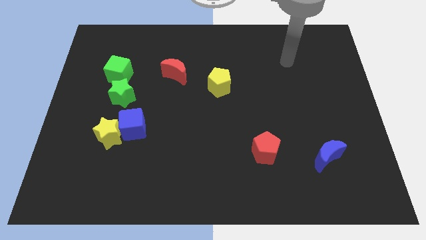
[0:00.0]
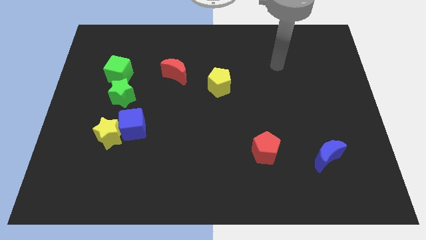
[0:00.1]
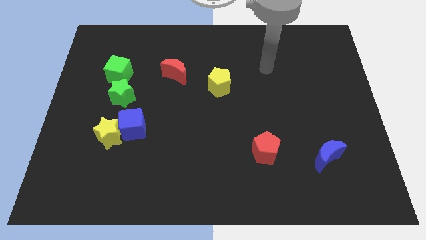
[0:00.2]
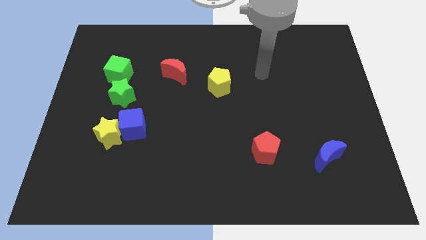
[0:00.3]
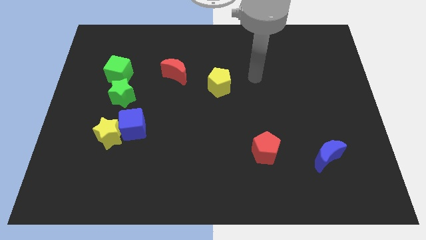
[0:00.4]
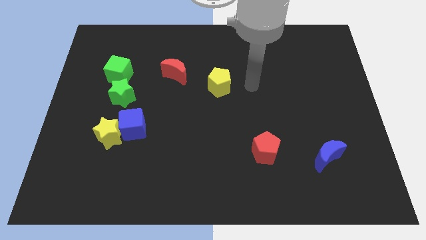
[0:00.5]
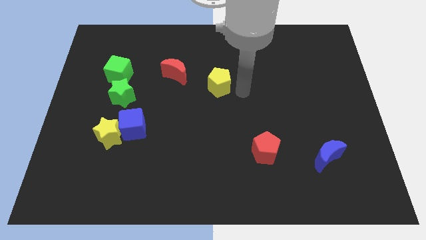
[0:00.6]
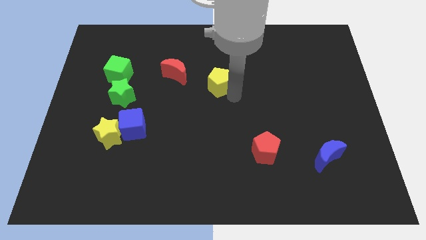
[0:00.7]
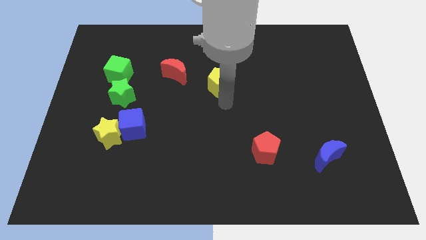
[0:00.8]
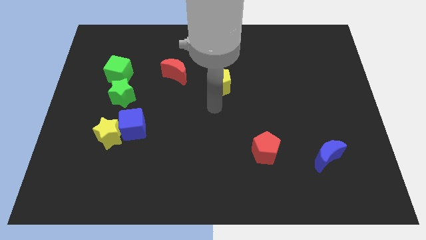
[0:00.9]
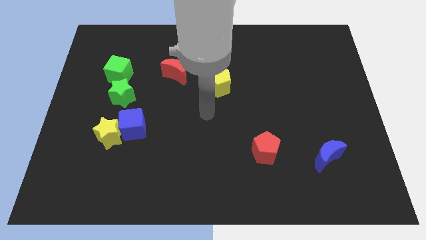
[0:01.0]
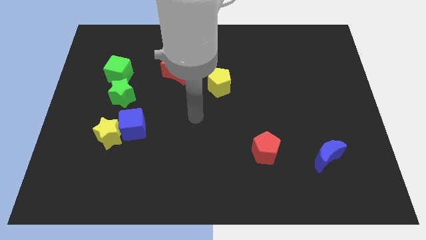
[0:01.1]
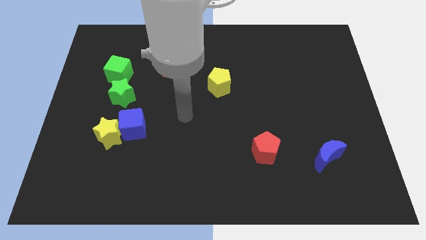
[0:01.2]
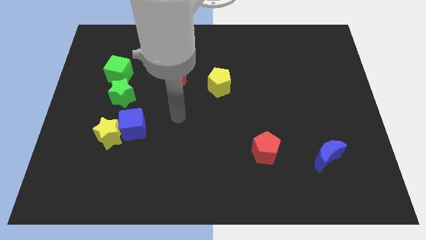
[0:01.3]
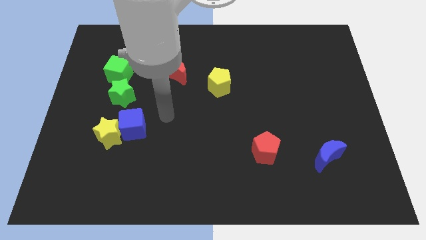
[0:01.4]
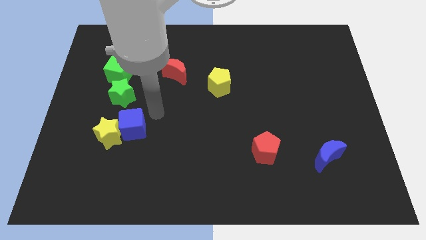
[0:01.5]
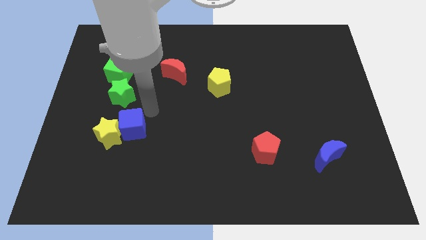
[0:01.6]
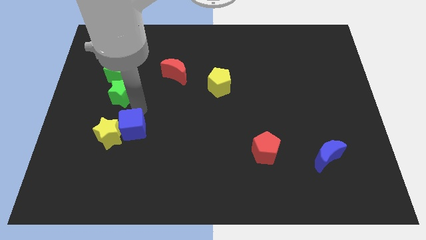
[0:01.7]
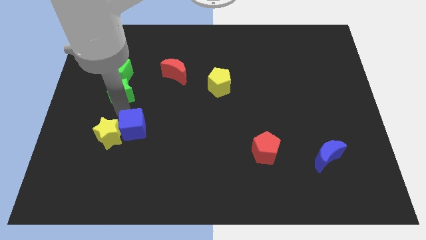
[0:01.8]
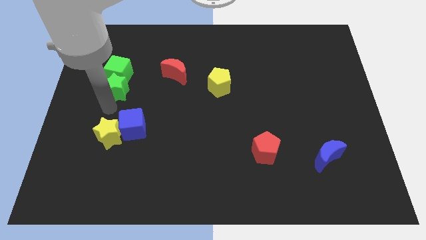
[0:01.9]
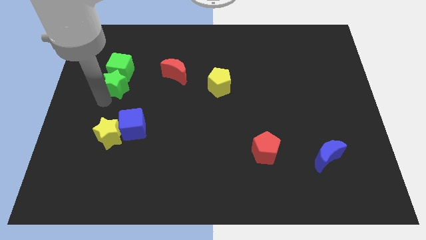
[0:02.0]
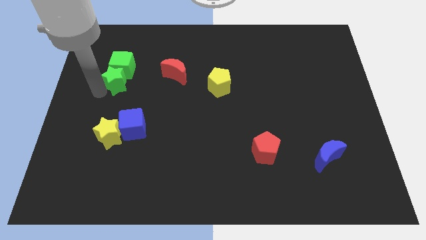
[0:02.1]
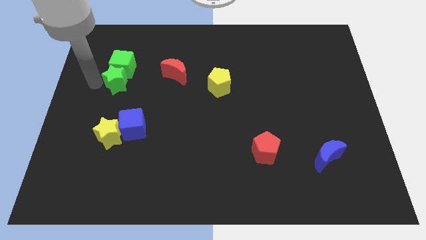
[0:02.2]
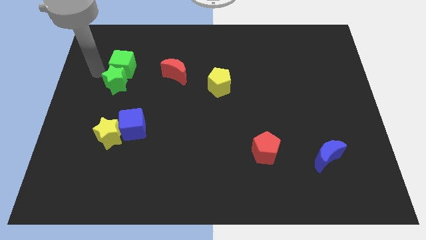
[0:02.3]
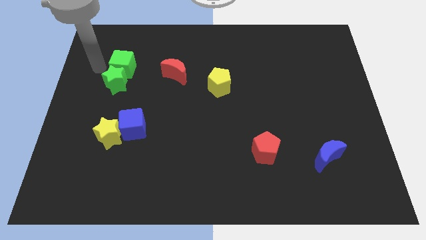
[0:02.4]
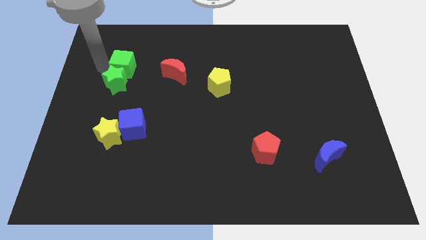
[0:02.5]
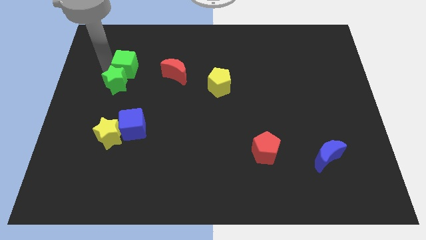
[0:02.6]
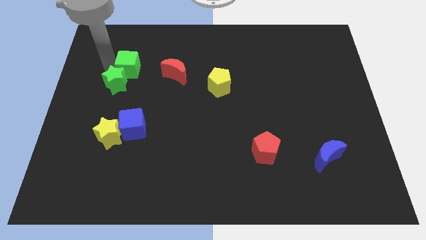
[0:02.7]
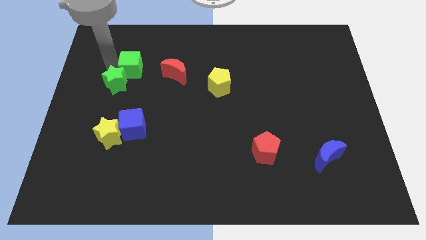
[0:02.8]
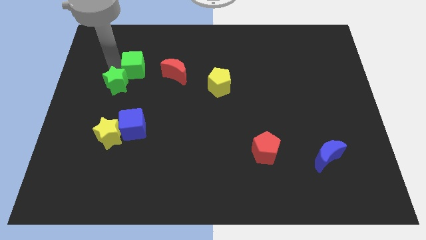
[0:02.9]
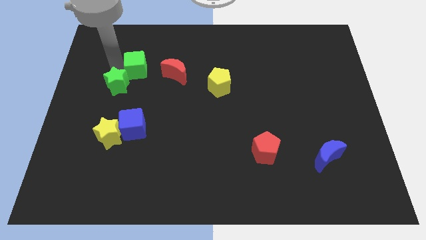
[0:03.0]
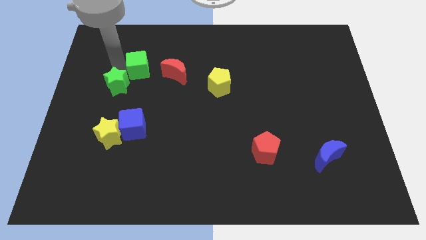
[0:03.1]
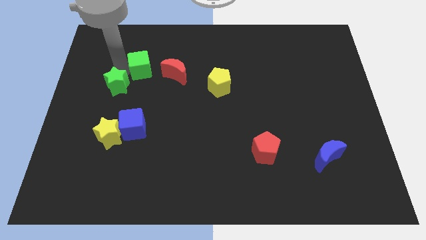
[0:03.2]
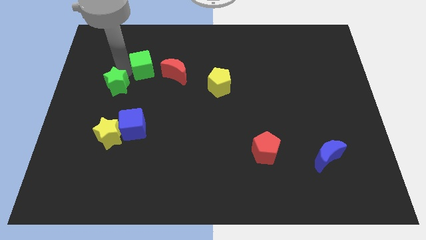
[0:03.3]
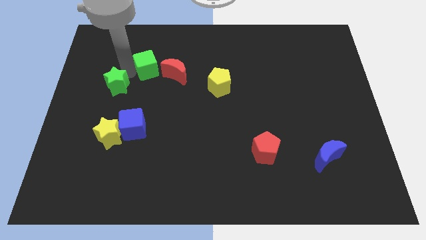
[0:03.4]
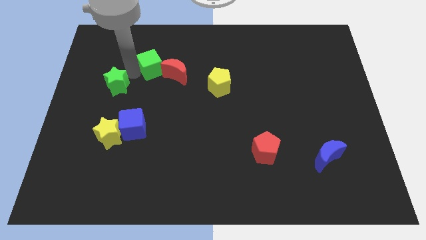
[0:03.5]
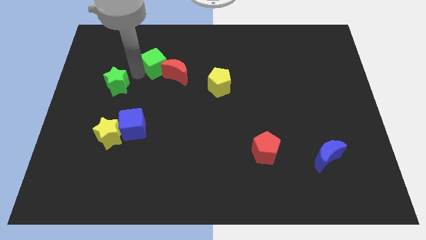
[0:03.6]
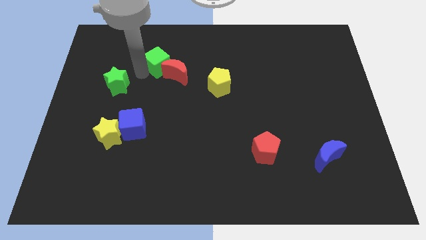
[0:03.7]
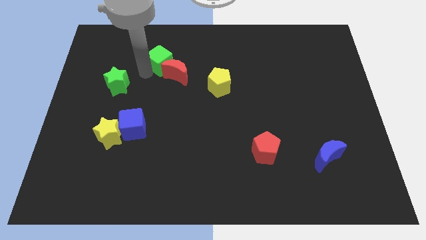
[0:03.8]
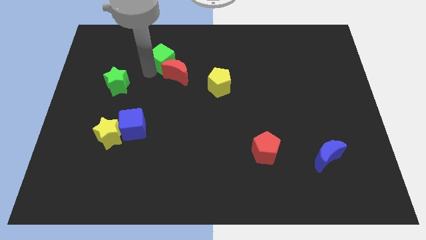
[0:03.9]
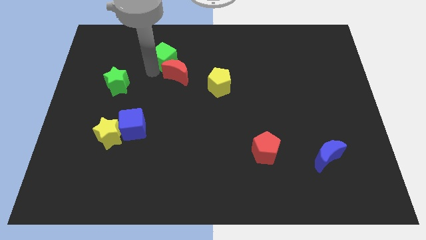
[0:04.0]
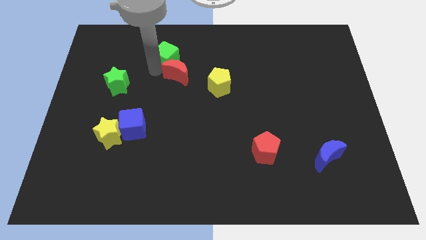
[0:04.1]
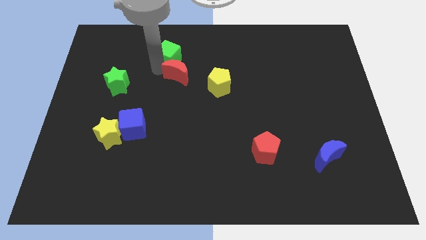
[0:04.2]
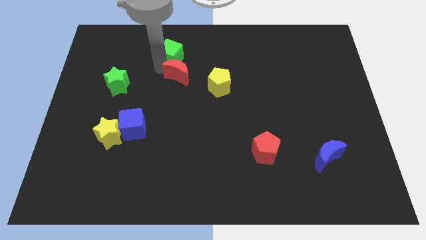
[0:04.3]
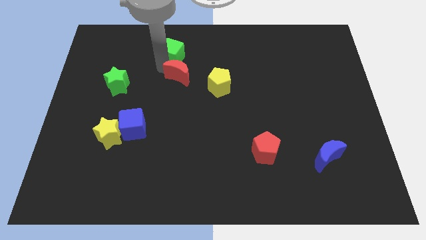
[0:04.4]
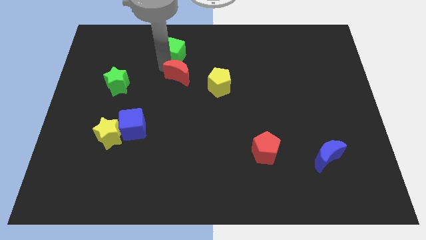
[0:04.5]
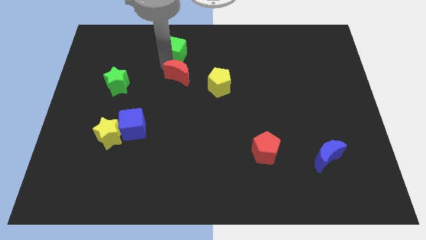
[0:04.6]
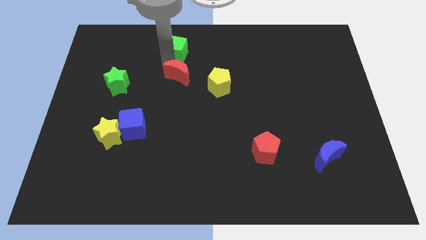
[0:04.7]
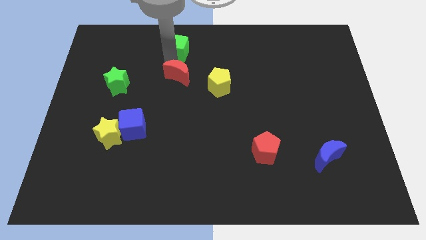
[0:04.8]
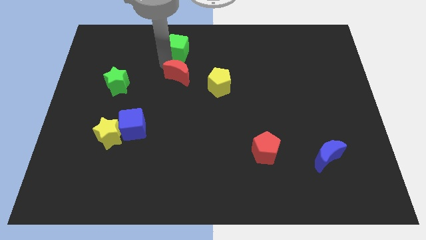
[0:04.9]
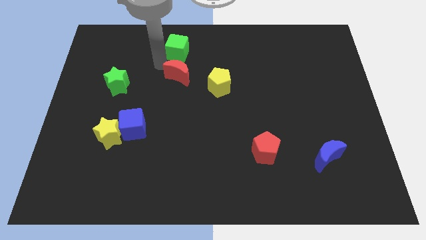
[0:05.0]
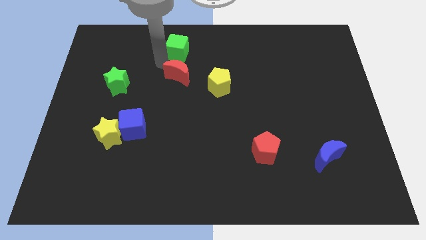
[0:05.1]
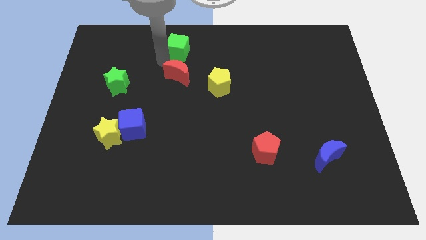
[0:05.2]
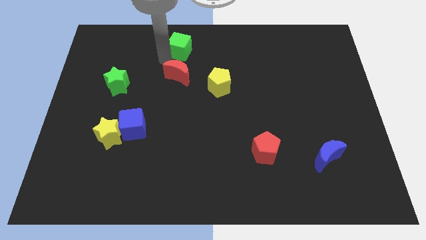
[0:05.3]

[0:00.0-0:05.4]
put the green cube to the top side

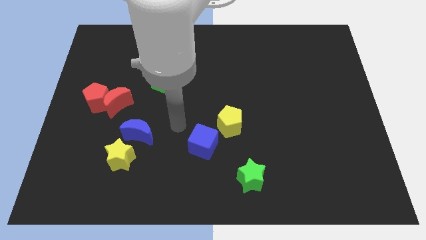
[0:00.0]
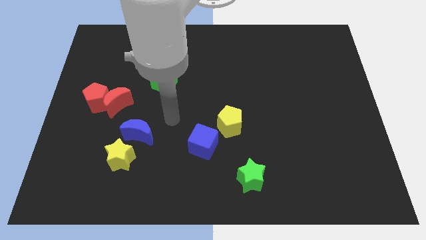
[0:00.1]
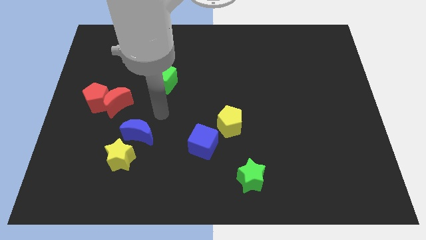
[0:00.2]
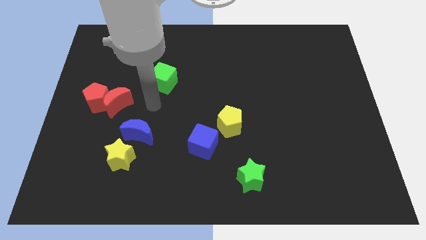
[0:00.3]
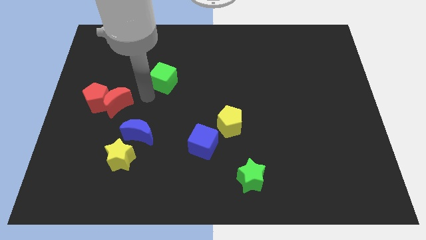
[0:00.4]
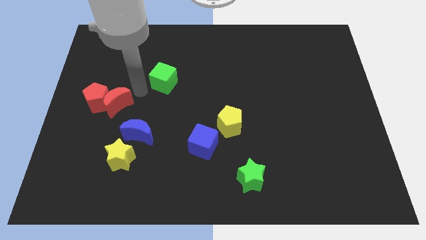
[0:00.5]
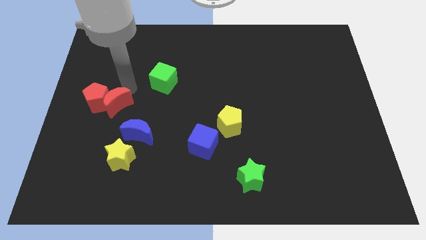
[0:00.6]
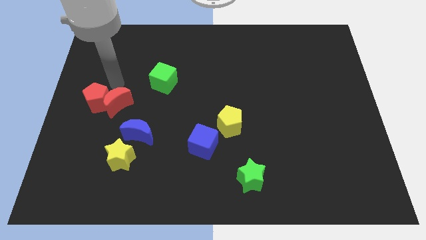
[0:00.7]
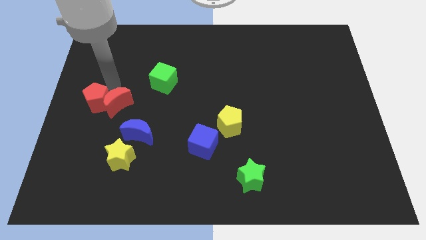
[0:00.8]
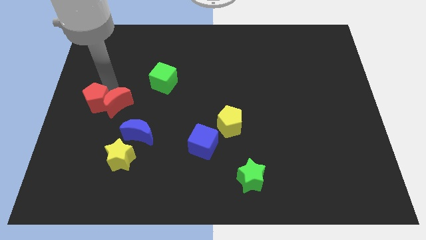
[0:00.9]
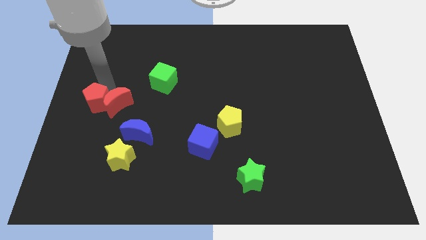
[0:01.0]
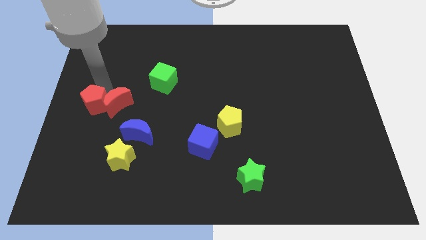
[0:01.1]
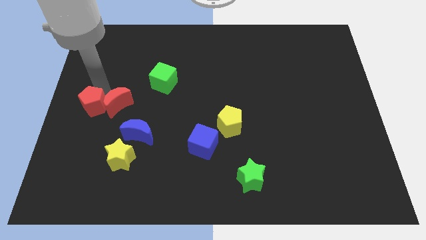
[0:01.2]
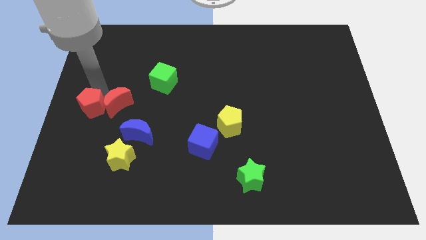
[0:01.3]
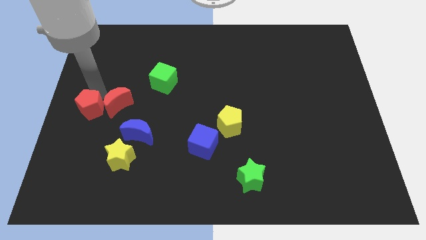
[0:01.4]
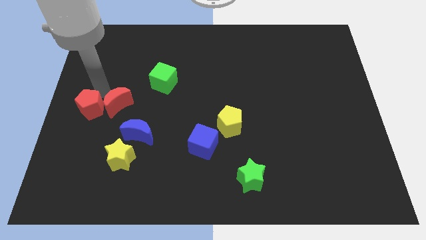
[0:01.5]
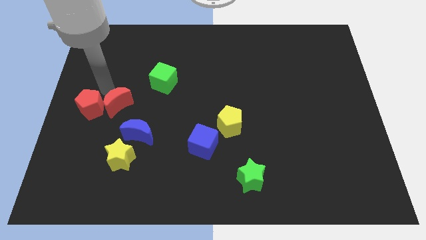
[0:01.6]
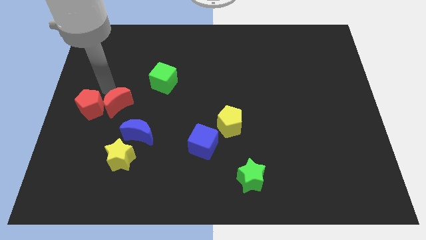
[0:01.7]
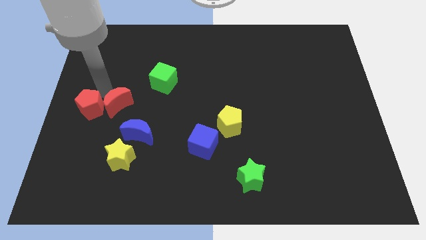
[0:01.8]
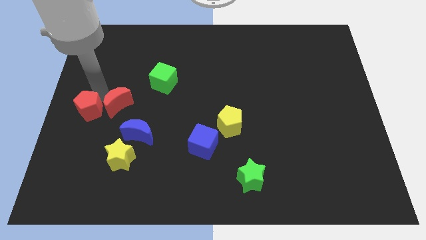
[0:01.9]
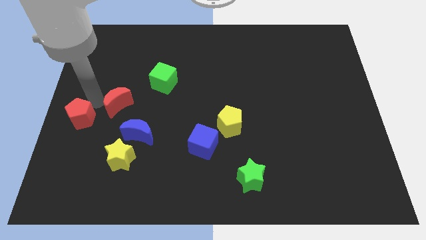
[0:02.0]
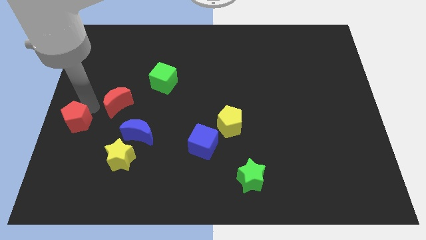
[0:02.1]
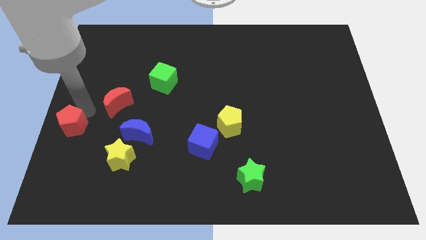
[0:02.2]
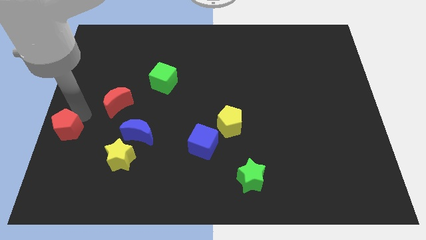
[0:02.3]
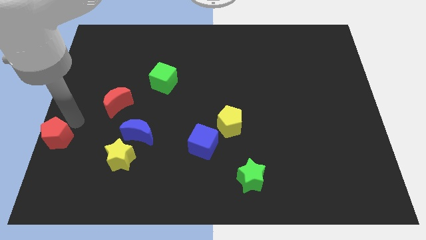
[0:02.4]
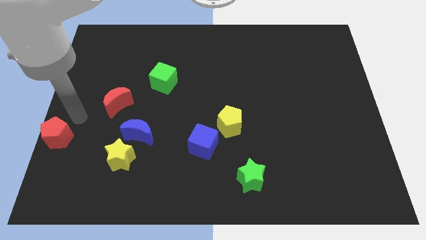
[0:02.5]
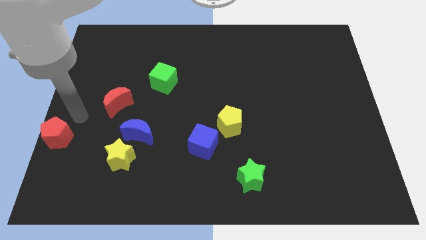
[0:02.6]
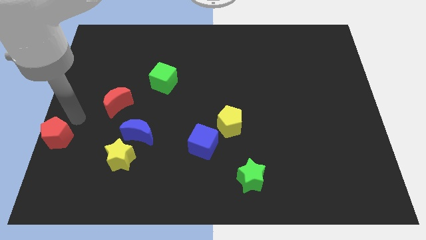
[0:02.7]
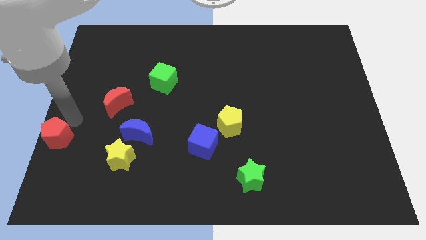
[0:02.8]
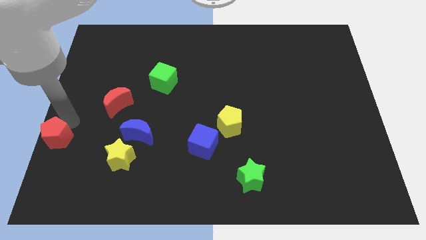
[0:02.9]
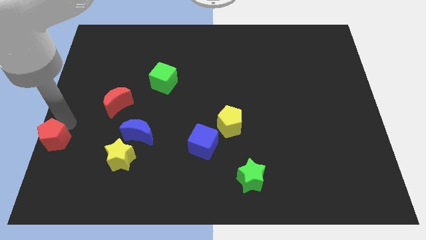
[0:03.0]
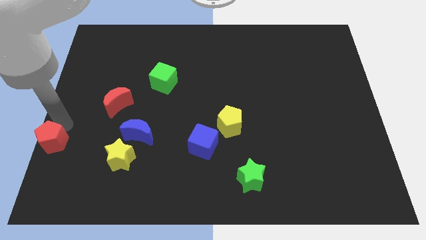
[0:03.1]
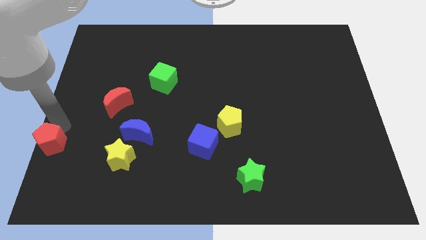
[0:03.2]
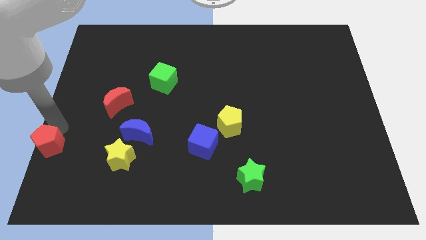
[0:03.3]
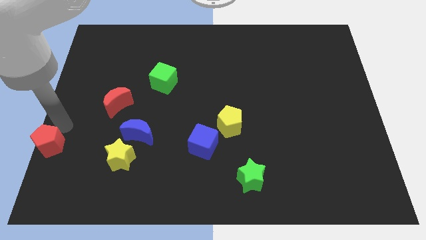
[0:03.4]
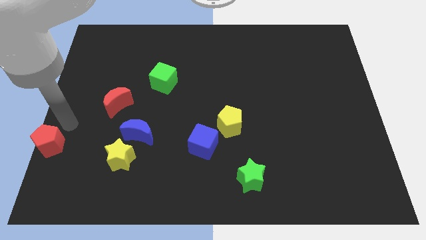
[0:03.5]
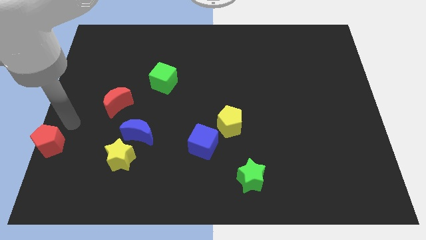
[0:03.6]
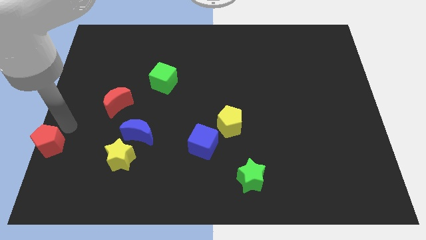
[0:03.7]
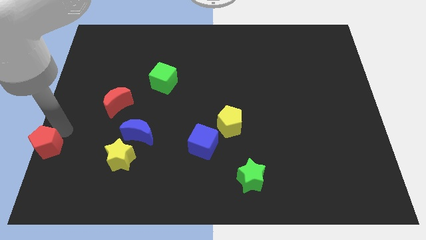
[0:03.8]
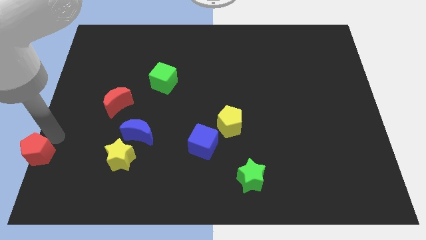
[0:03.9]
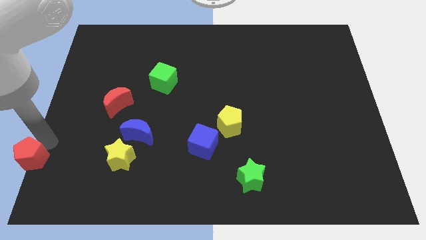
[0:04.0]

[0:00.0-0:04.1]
push the red pentagon to the bottom left of the board
